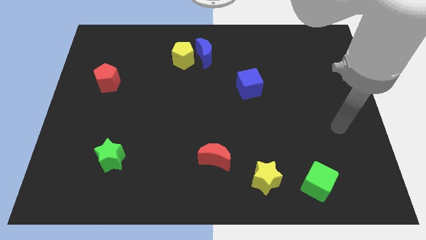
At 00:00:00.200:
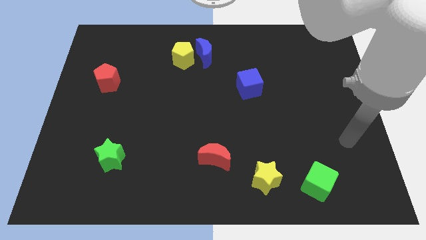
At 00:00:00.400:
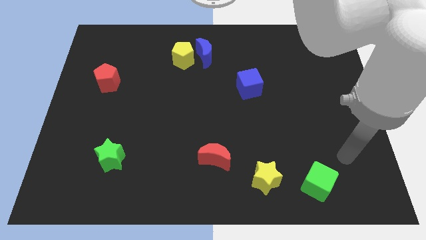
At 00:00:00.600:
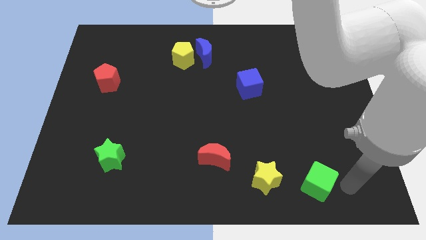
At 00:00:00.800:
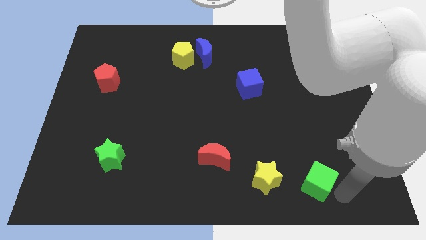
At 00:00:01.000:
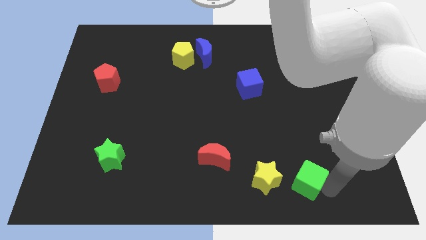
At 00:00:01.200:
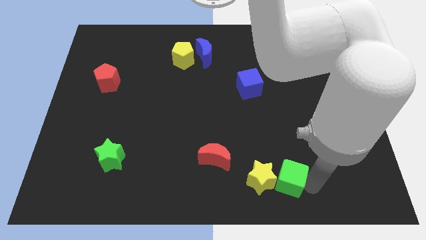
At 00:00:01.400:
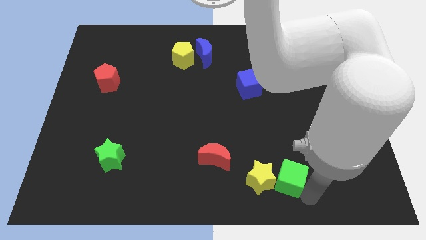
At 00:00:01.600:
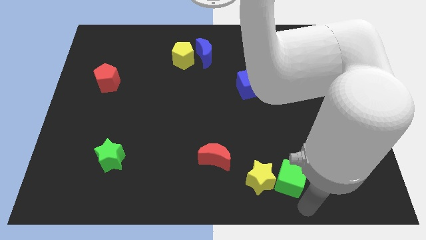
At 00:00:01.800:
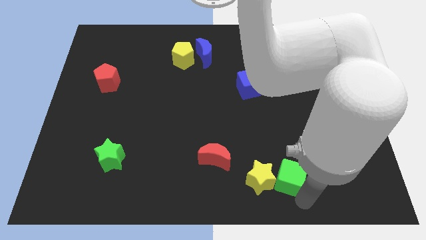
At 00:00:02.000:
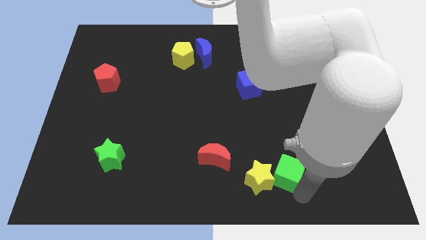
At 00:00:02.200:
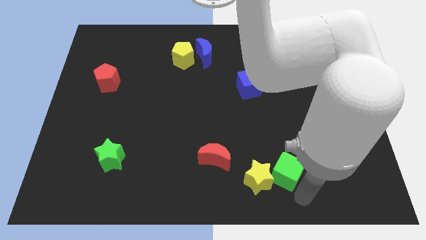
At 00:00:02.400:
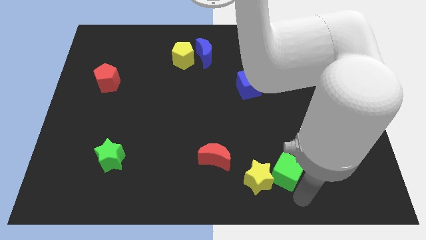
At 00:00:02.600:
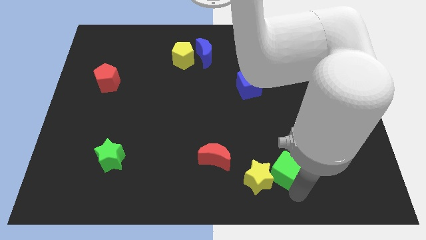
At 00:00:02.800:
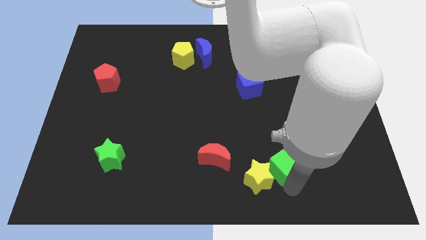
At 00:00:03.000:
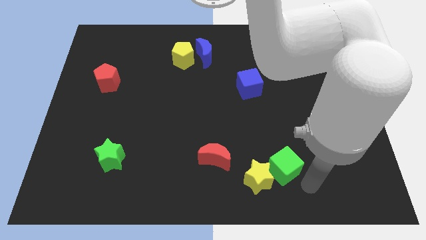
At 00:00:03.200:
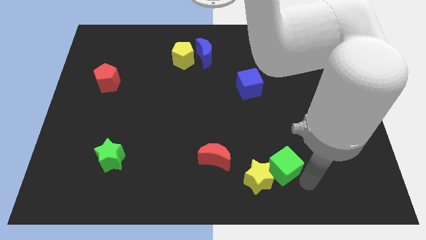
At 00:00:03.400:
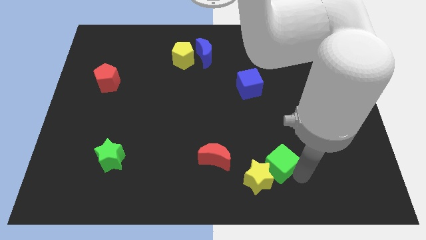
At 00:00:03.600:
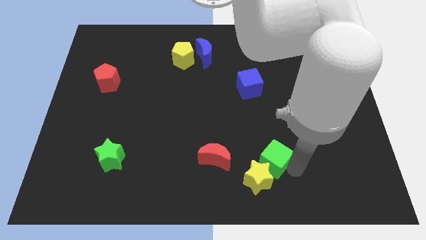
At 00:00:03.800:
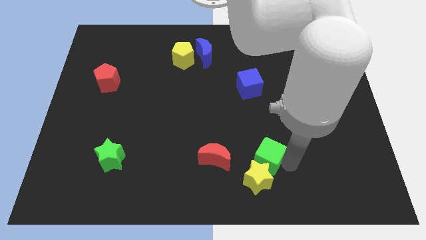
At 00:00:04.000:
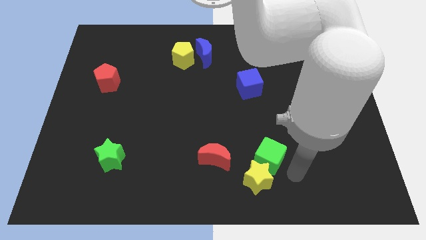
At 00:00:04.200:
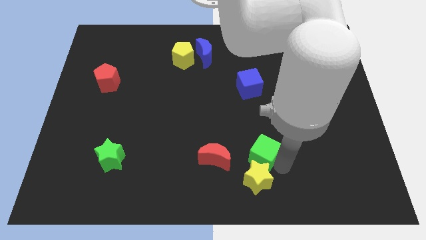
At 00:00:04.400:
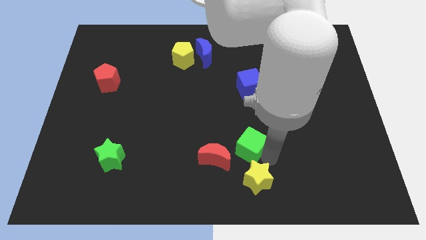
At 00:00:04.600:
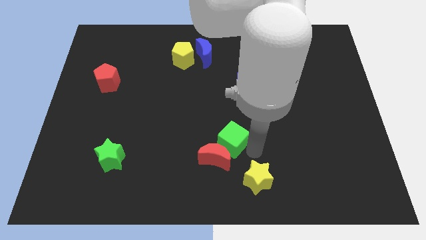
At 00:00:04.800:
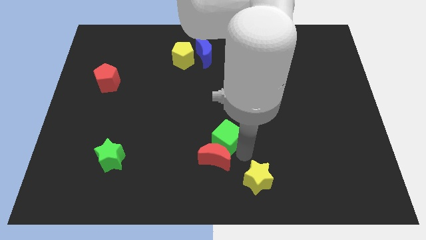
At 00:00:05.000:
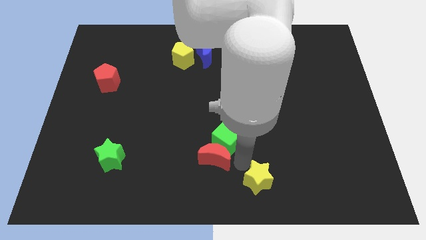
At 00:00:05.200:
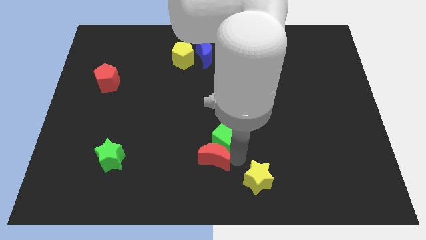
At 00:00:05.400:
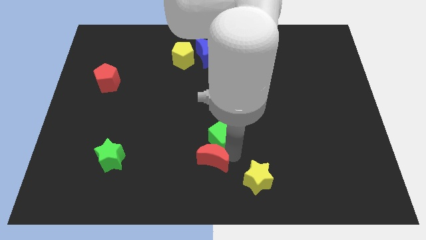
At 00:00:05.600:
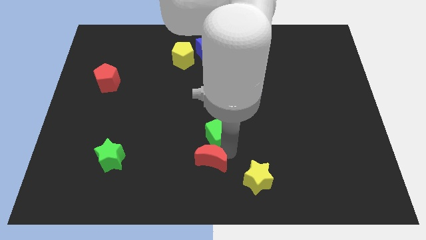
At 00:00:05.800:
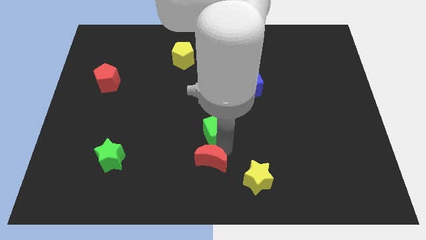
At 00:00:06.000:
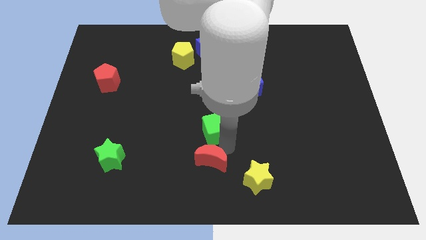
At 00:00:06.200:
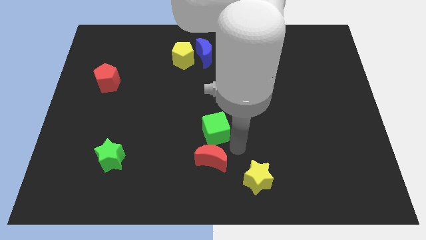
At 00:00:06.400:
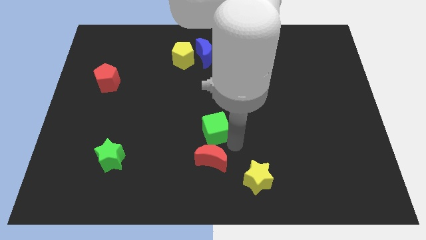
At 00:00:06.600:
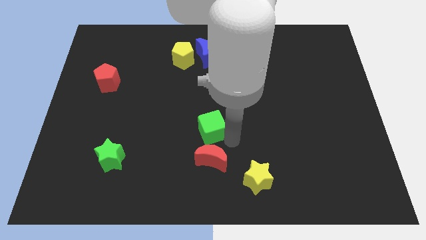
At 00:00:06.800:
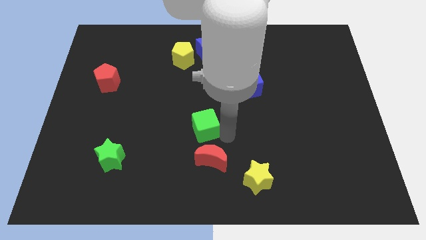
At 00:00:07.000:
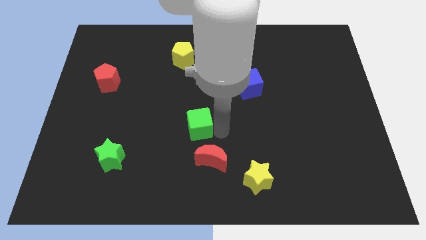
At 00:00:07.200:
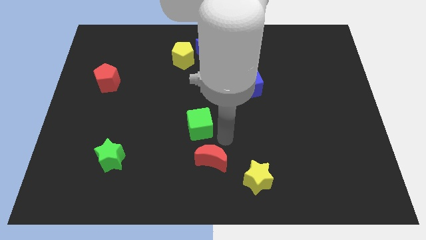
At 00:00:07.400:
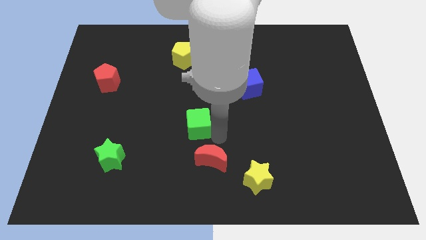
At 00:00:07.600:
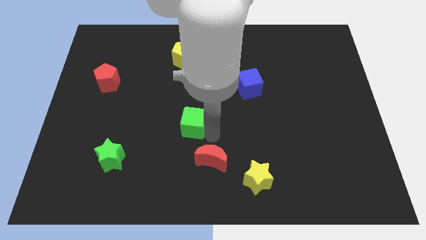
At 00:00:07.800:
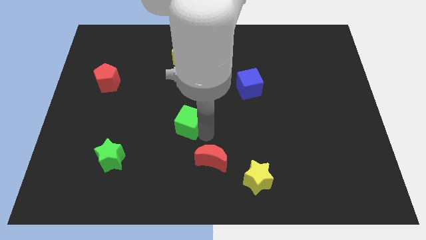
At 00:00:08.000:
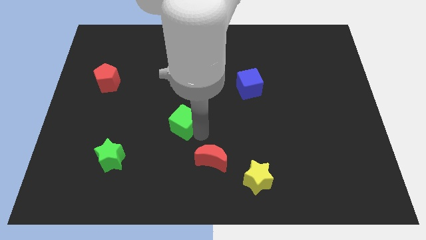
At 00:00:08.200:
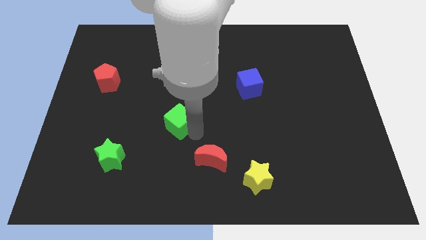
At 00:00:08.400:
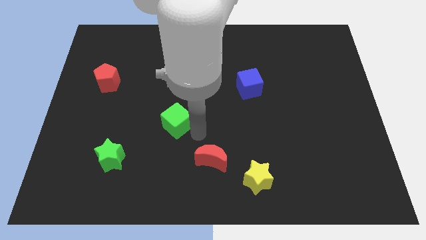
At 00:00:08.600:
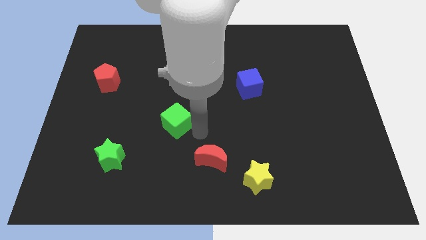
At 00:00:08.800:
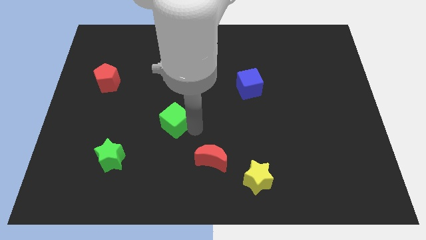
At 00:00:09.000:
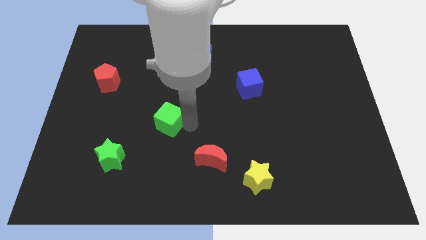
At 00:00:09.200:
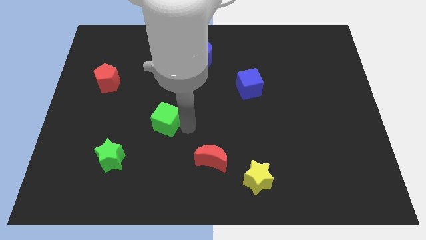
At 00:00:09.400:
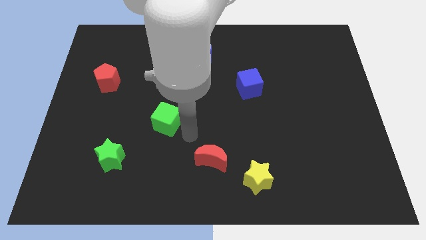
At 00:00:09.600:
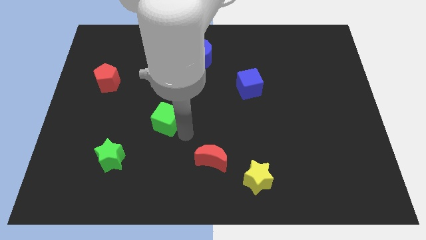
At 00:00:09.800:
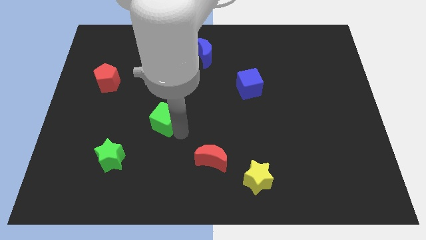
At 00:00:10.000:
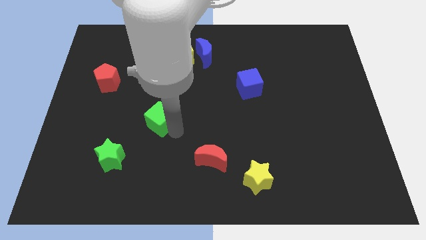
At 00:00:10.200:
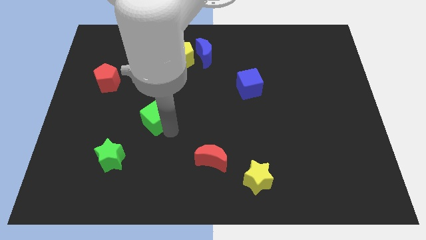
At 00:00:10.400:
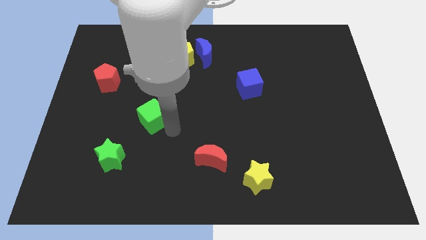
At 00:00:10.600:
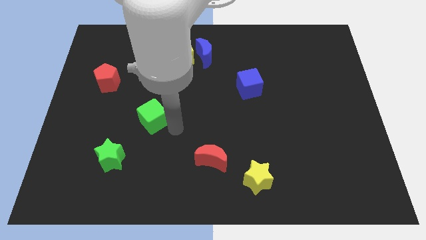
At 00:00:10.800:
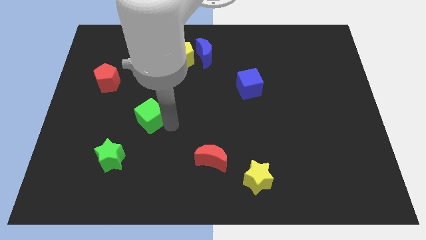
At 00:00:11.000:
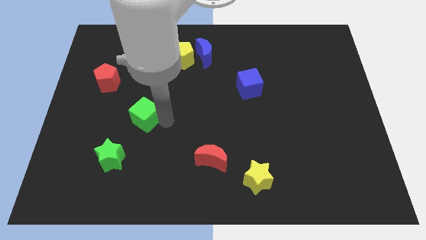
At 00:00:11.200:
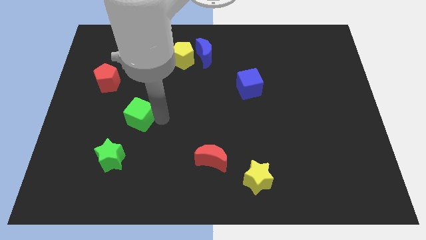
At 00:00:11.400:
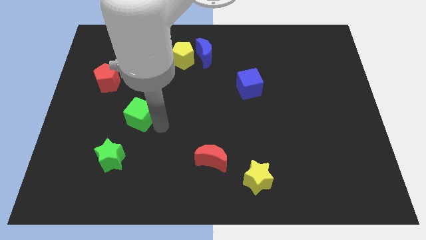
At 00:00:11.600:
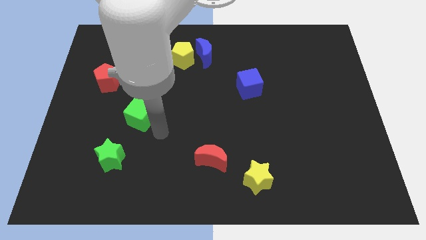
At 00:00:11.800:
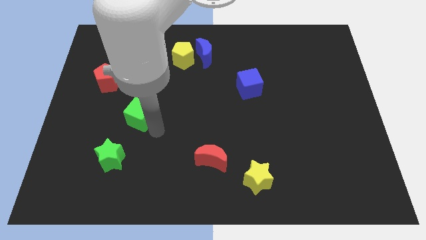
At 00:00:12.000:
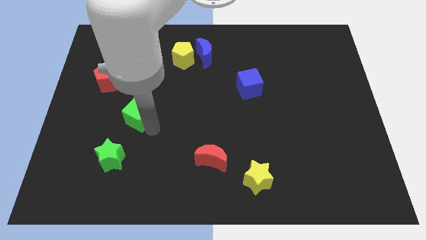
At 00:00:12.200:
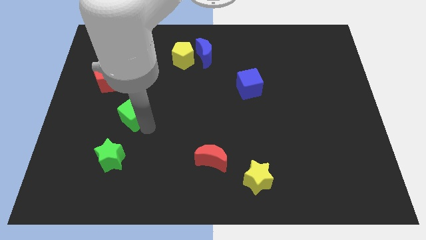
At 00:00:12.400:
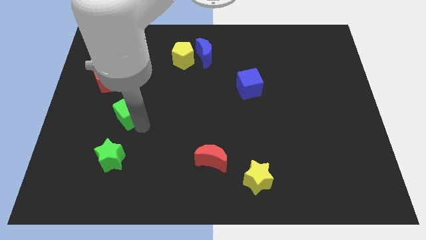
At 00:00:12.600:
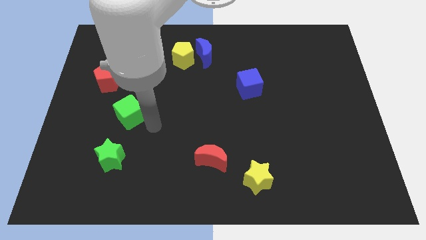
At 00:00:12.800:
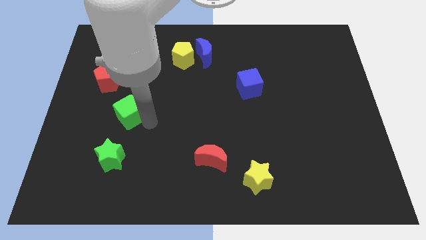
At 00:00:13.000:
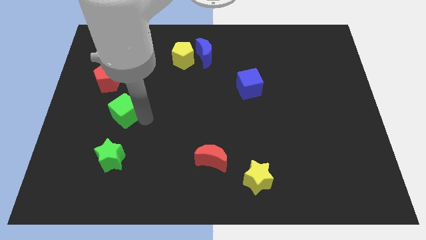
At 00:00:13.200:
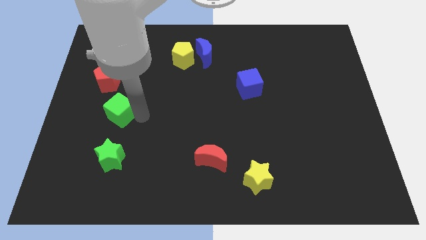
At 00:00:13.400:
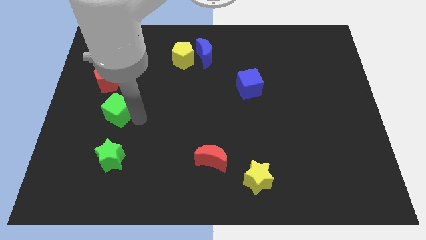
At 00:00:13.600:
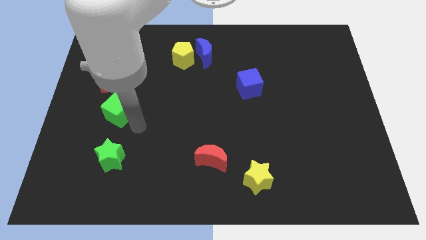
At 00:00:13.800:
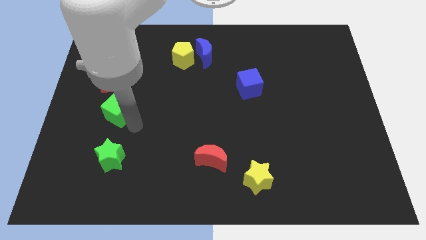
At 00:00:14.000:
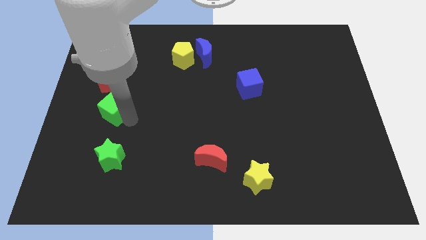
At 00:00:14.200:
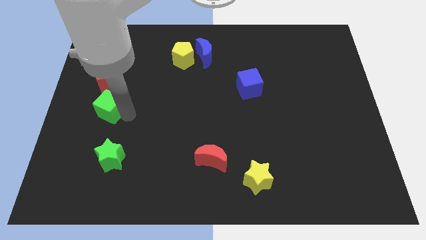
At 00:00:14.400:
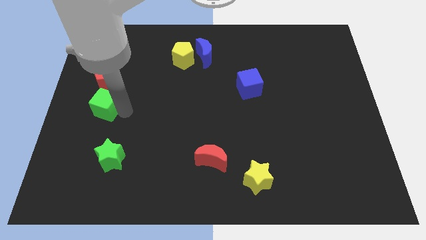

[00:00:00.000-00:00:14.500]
move the green cube to the left side
